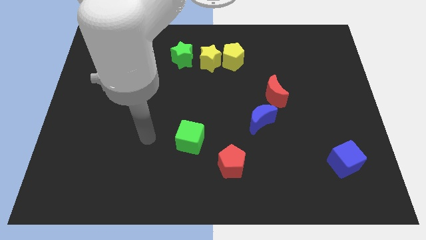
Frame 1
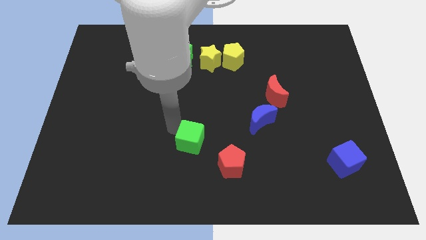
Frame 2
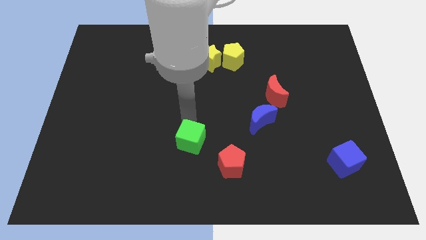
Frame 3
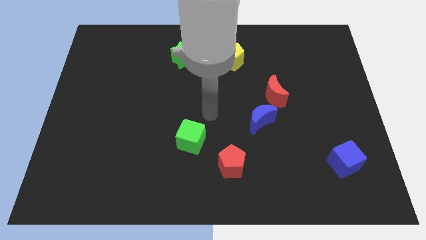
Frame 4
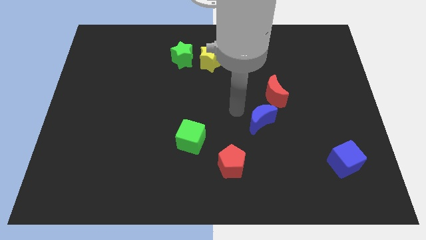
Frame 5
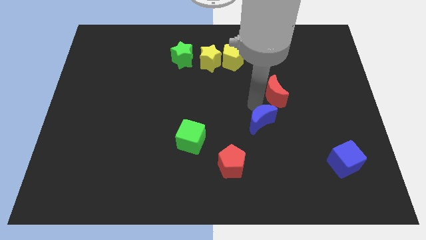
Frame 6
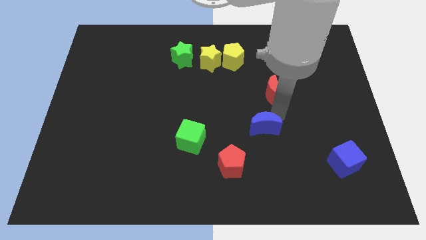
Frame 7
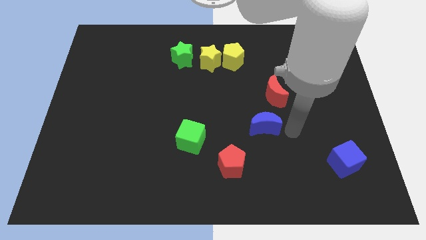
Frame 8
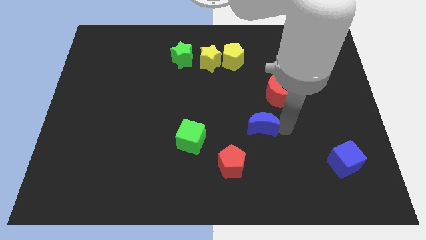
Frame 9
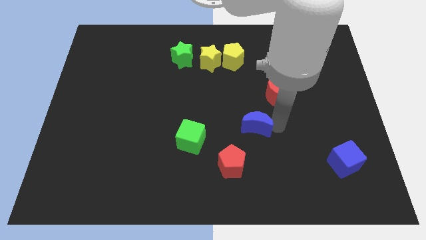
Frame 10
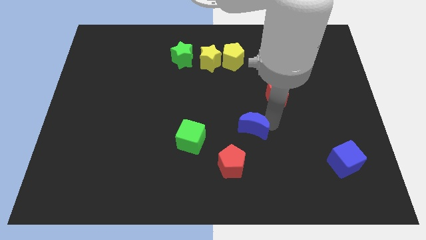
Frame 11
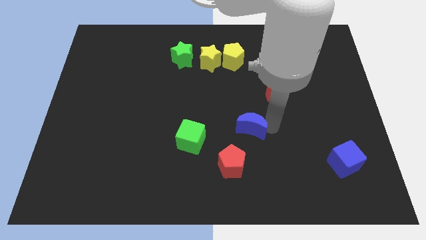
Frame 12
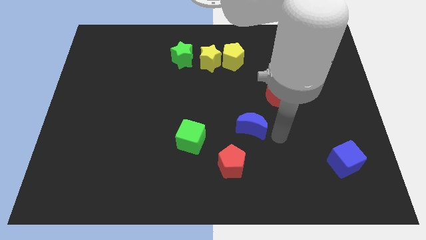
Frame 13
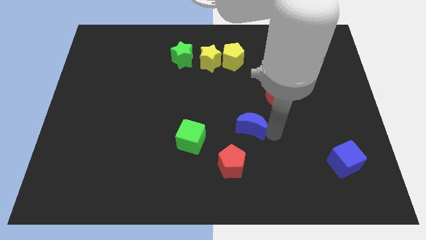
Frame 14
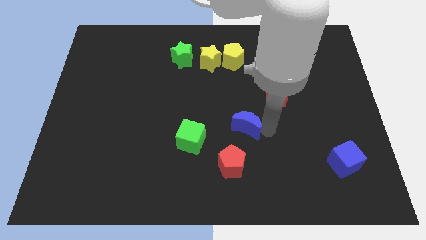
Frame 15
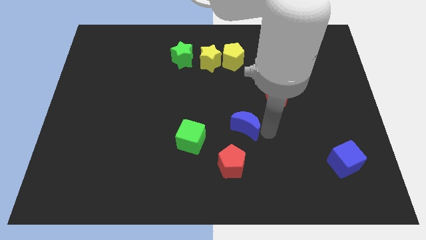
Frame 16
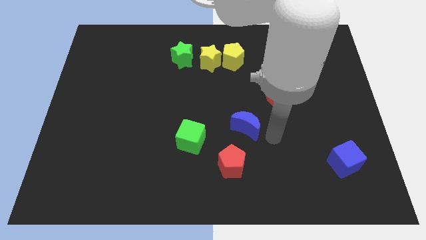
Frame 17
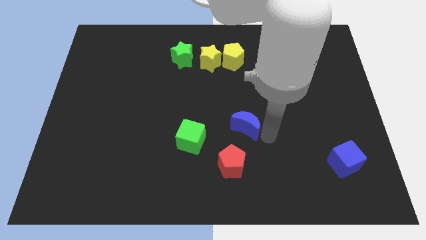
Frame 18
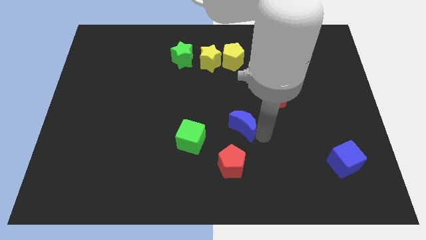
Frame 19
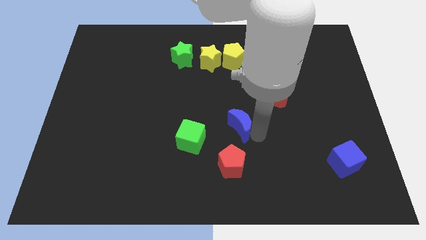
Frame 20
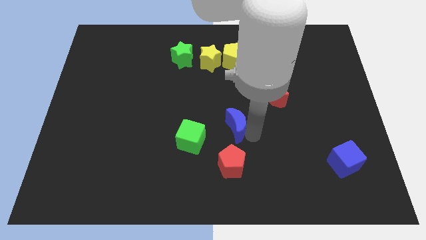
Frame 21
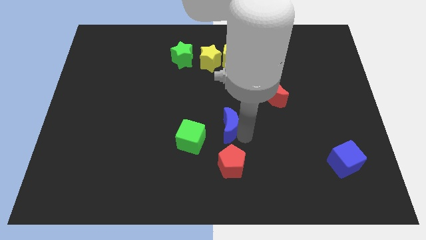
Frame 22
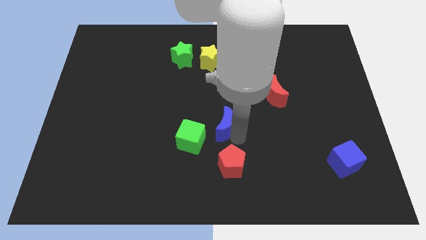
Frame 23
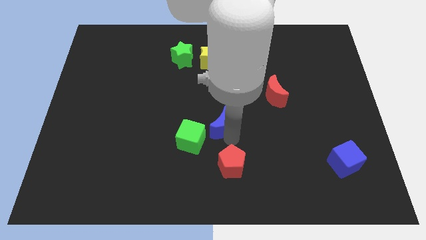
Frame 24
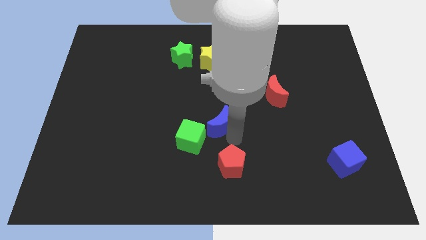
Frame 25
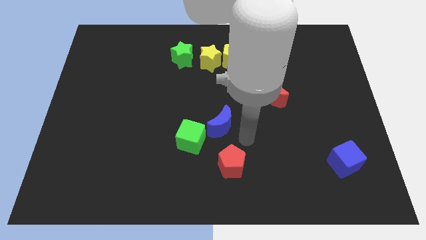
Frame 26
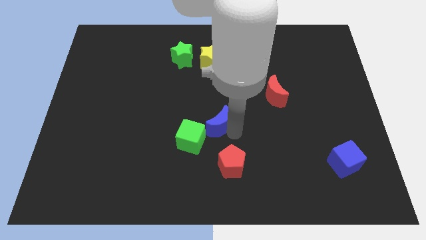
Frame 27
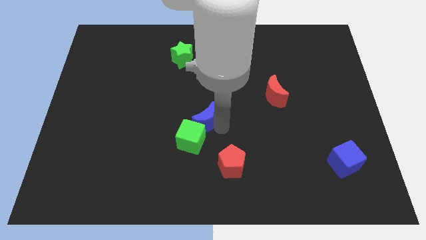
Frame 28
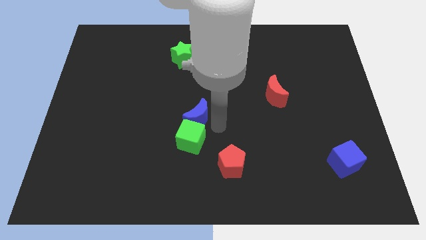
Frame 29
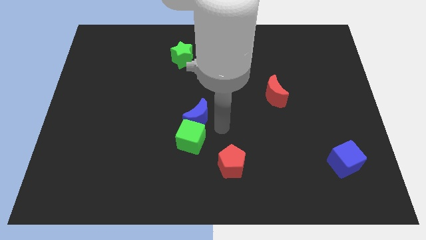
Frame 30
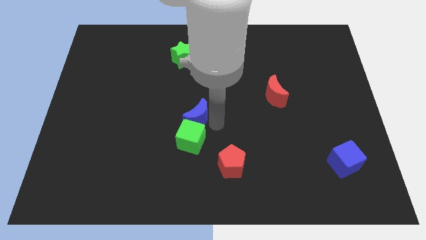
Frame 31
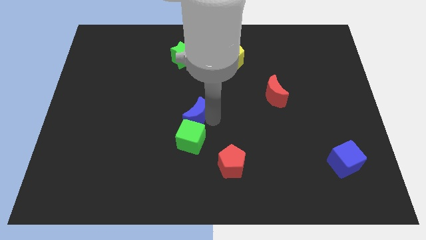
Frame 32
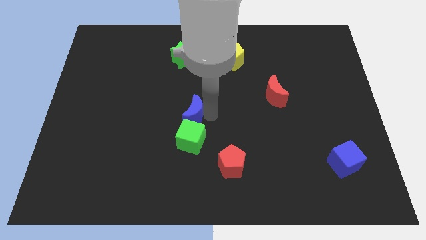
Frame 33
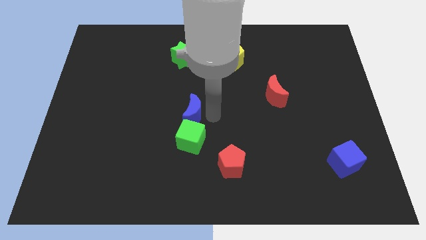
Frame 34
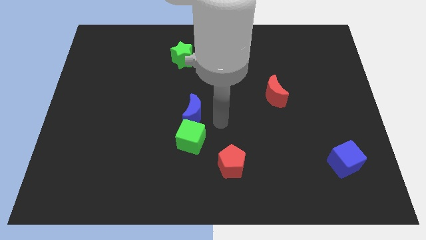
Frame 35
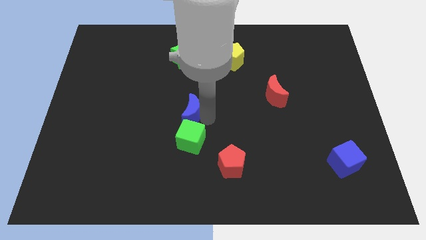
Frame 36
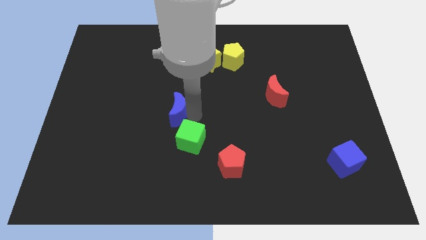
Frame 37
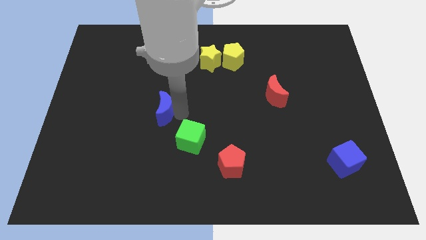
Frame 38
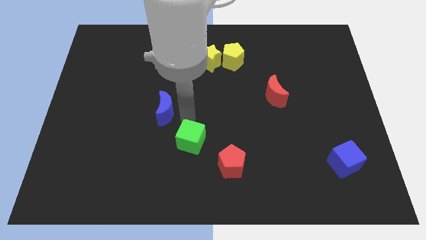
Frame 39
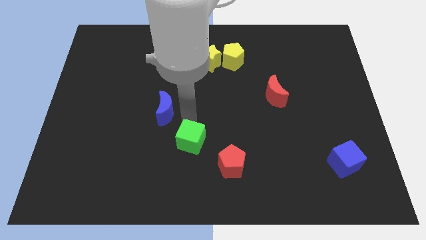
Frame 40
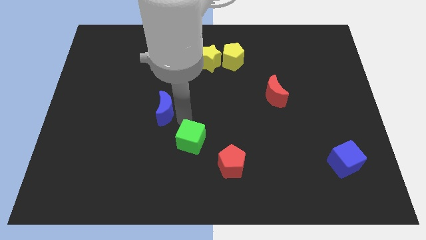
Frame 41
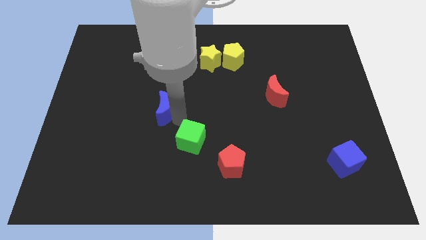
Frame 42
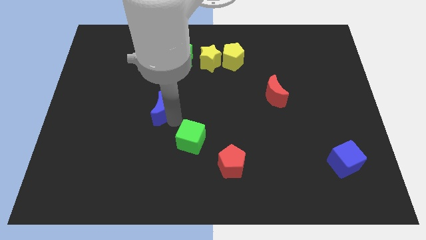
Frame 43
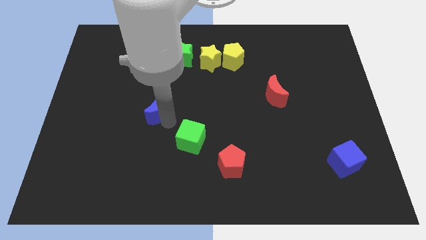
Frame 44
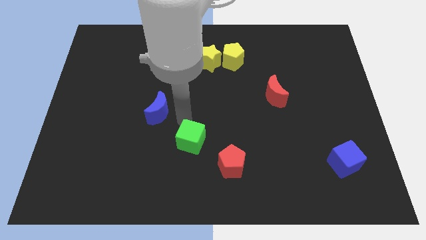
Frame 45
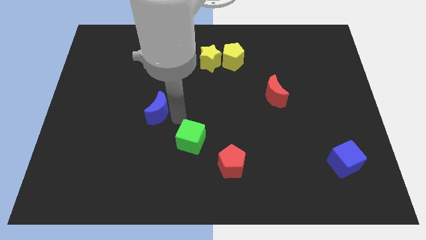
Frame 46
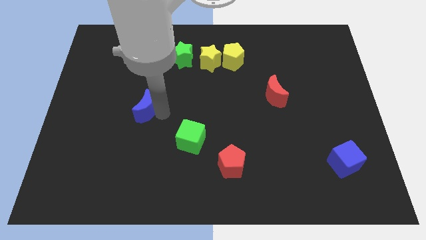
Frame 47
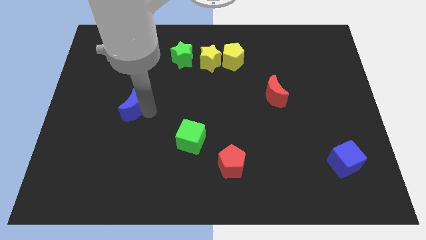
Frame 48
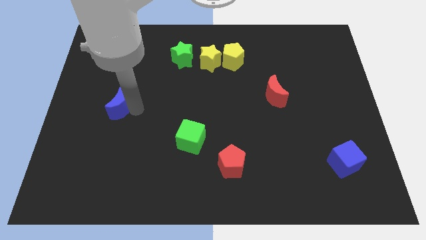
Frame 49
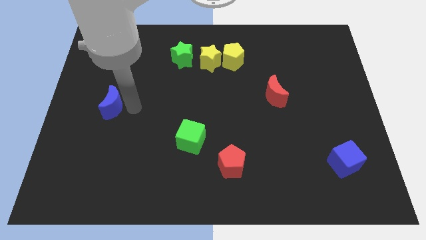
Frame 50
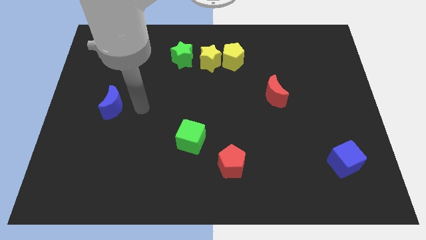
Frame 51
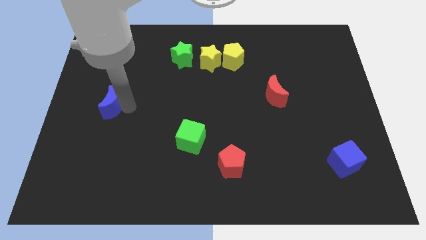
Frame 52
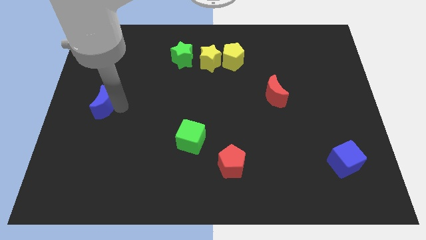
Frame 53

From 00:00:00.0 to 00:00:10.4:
move the blue moon to the left side of the board

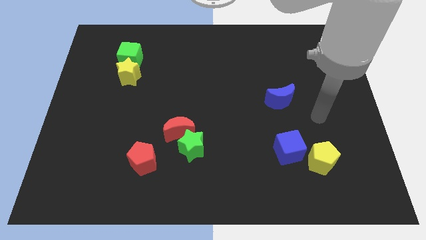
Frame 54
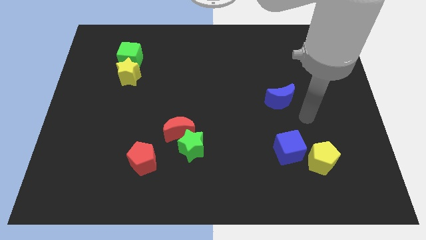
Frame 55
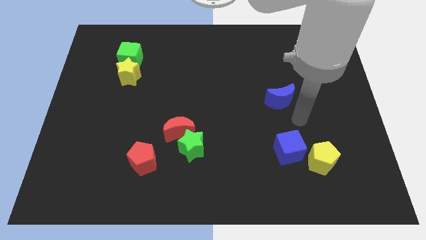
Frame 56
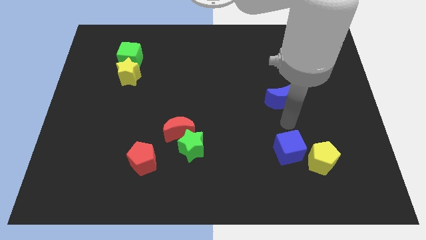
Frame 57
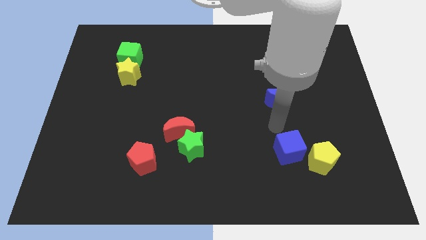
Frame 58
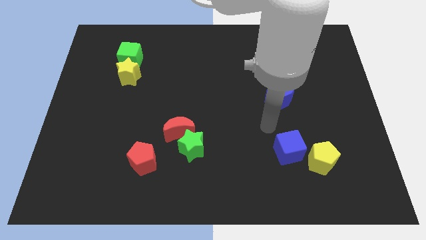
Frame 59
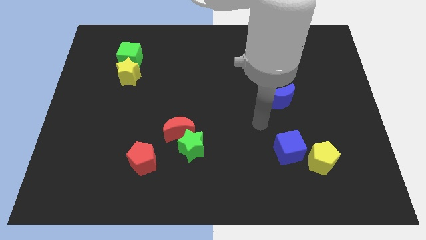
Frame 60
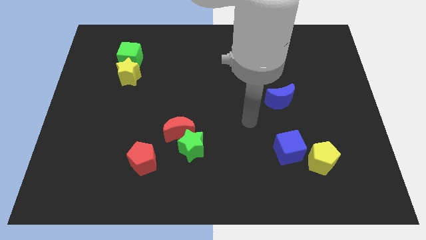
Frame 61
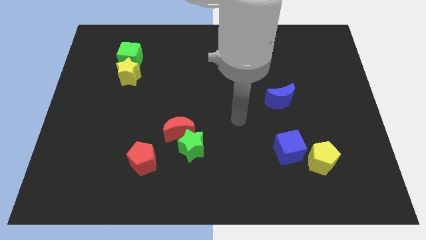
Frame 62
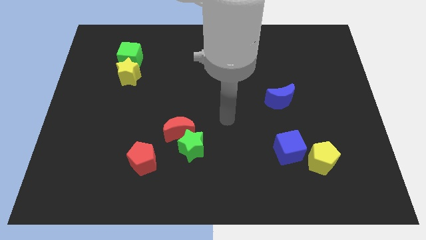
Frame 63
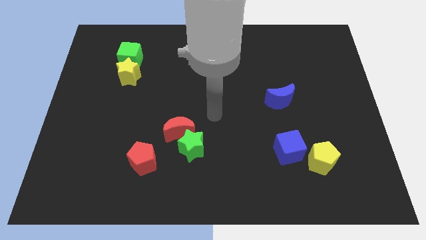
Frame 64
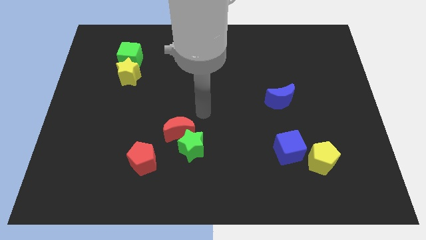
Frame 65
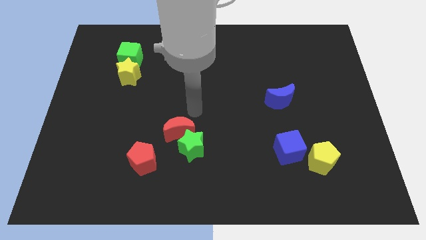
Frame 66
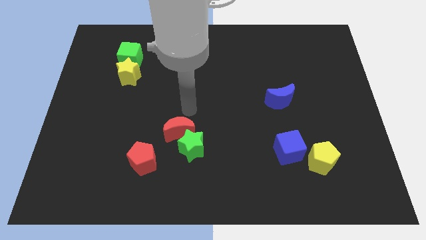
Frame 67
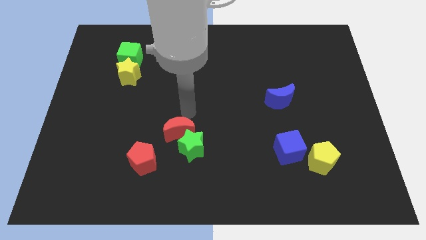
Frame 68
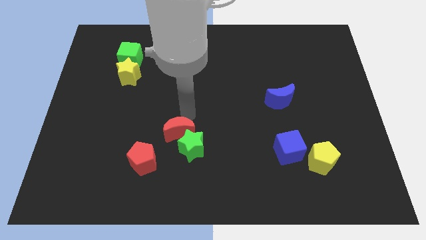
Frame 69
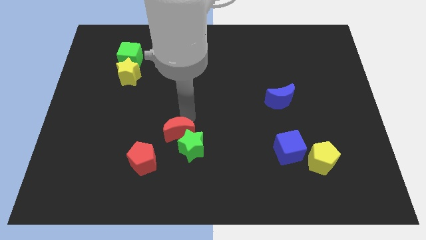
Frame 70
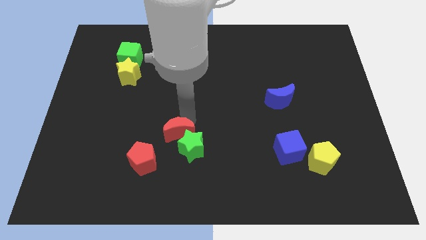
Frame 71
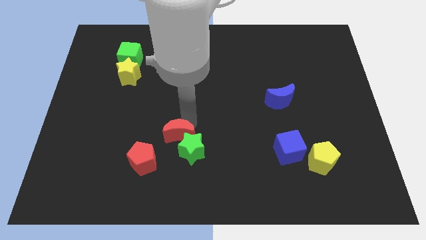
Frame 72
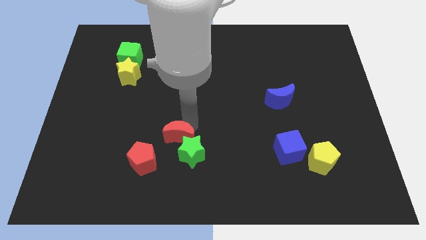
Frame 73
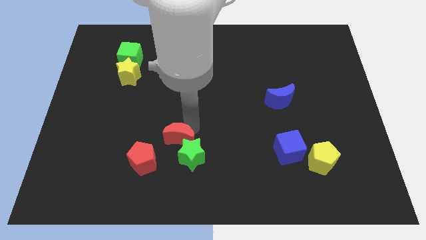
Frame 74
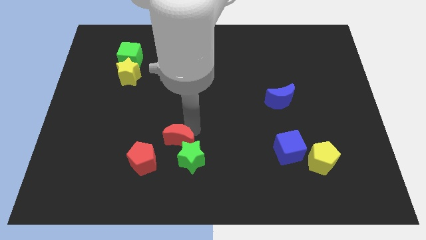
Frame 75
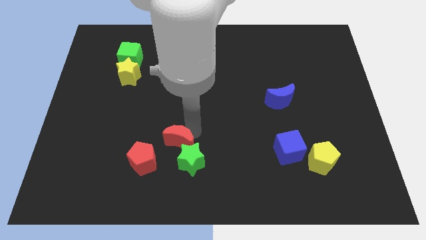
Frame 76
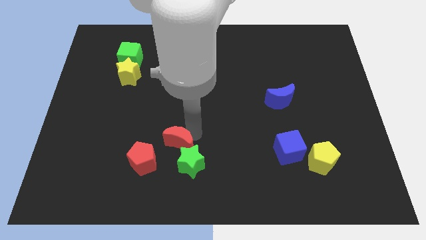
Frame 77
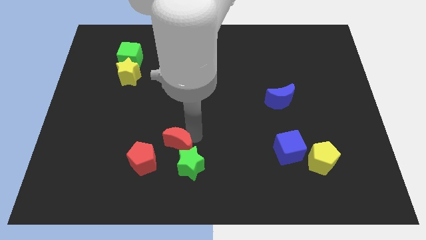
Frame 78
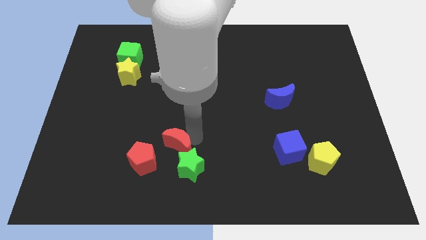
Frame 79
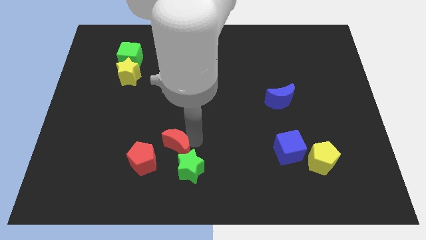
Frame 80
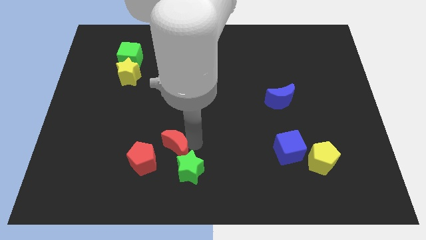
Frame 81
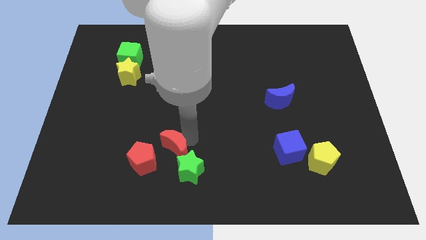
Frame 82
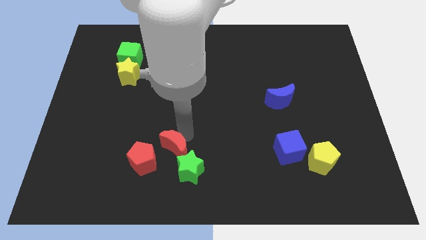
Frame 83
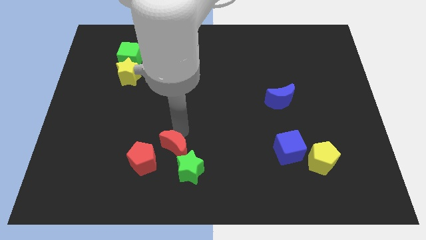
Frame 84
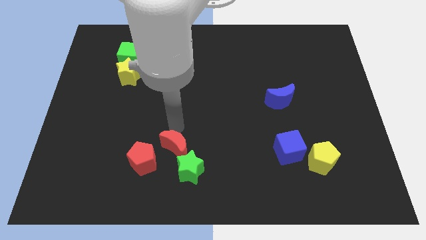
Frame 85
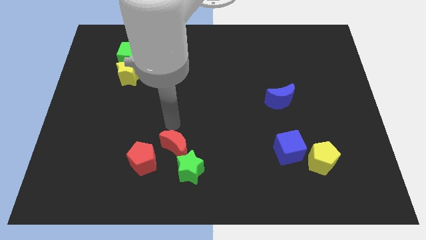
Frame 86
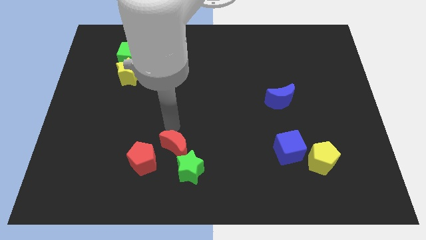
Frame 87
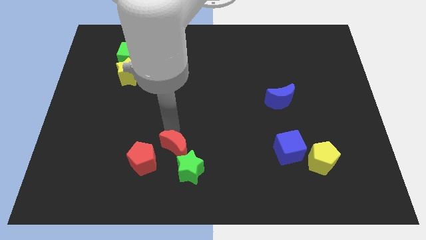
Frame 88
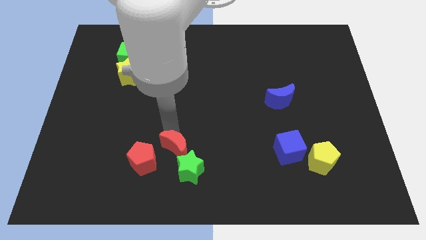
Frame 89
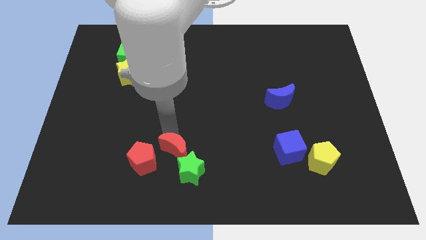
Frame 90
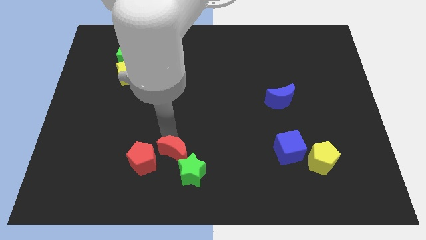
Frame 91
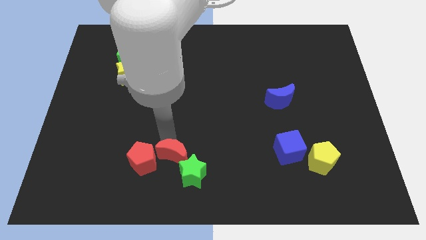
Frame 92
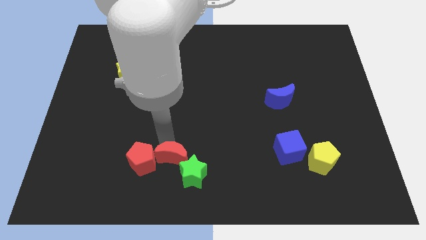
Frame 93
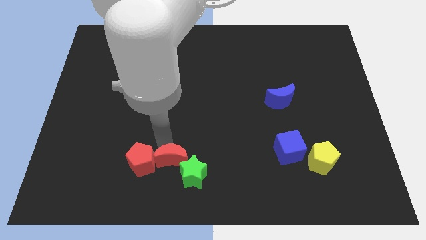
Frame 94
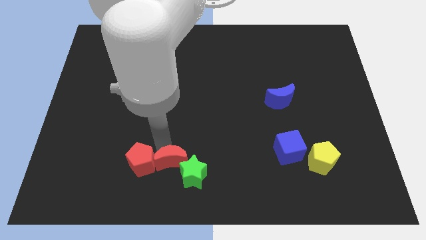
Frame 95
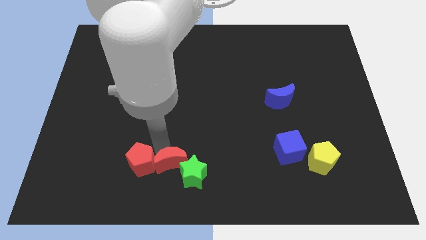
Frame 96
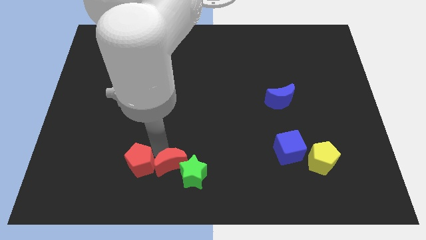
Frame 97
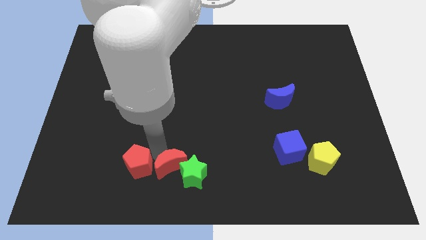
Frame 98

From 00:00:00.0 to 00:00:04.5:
slide the red moon to the bottom
